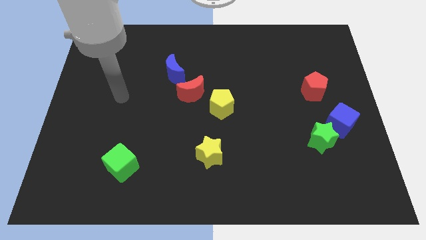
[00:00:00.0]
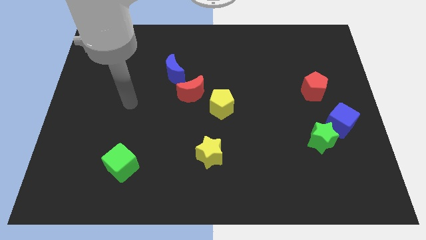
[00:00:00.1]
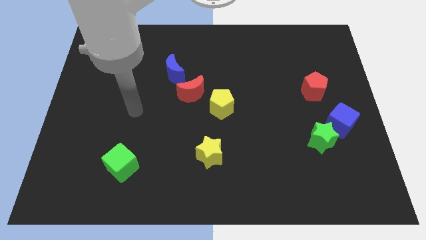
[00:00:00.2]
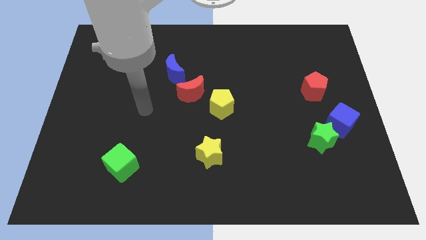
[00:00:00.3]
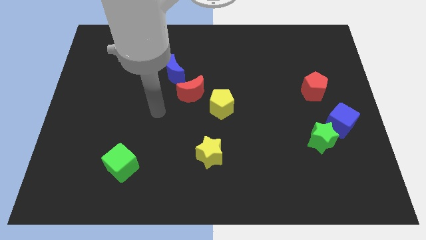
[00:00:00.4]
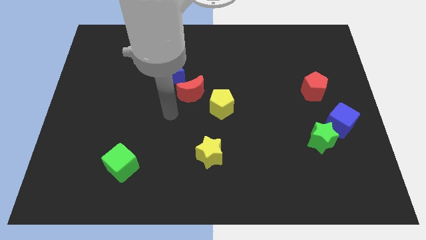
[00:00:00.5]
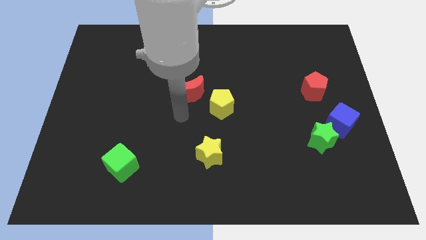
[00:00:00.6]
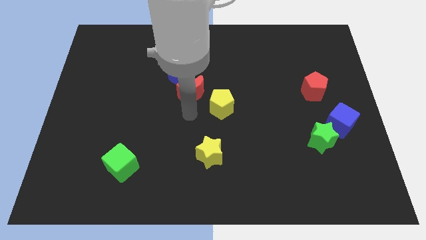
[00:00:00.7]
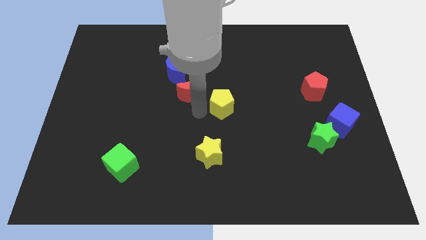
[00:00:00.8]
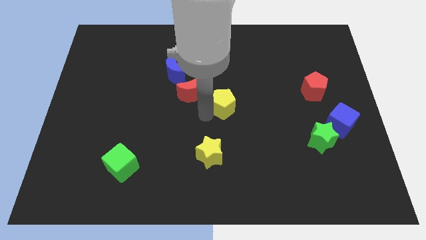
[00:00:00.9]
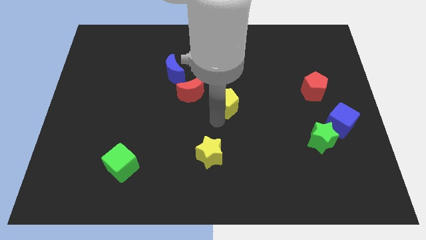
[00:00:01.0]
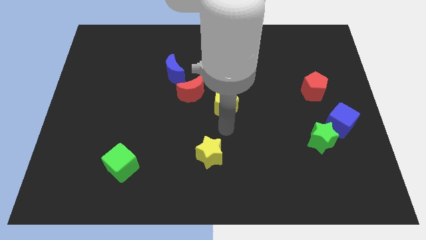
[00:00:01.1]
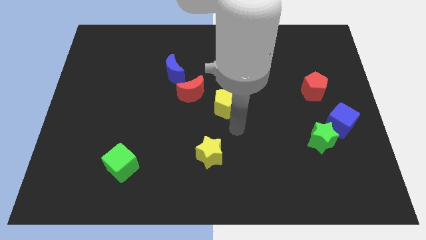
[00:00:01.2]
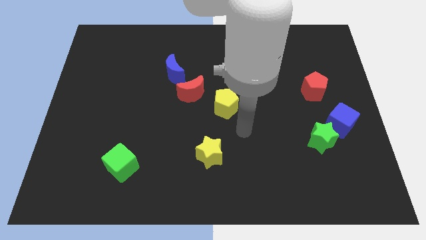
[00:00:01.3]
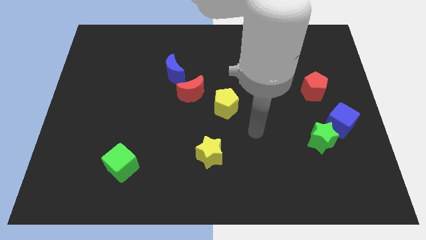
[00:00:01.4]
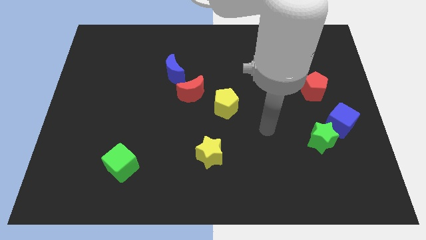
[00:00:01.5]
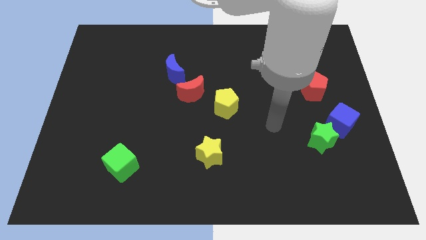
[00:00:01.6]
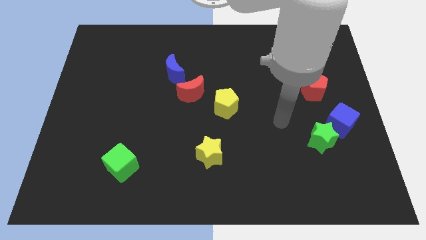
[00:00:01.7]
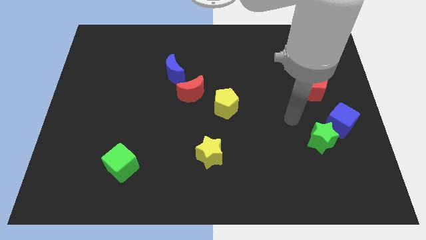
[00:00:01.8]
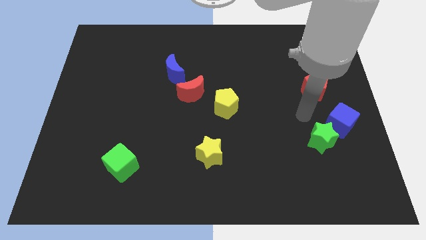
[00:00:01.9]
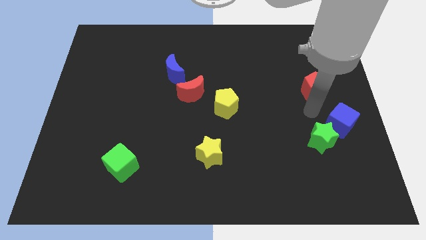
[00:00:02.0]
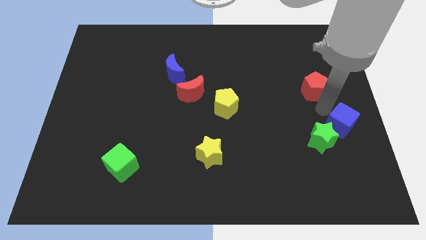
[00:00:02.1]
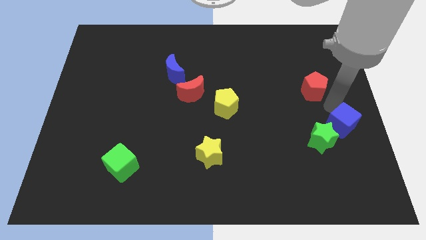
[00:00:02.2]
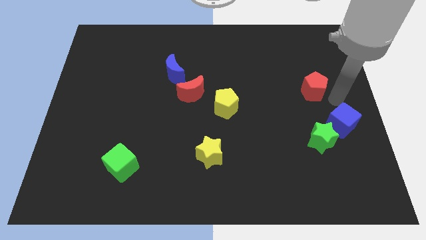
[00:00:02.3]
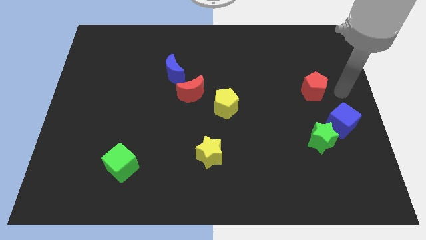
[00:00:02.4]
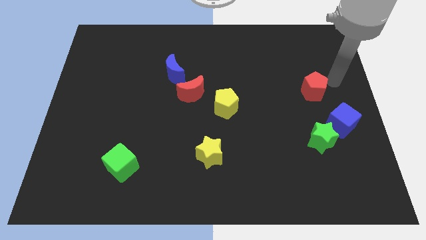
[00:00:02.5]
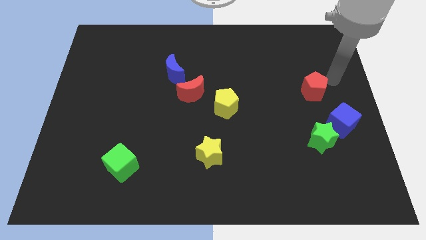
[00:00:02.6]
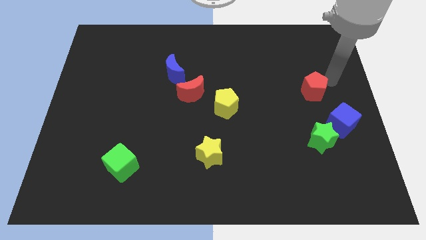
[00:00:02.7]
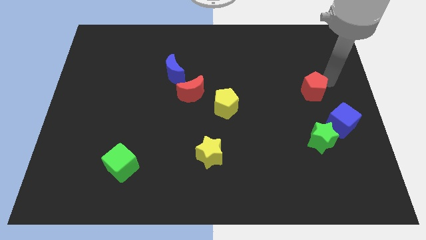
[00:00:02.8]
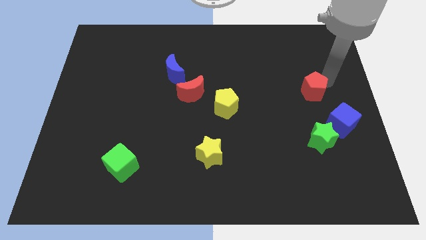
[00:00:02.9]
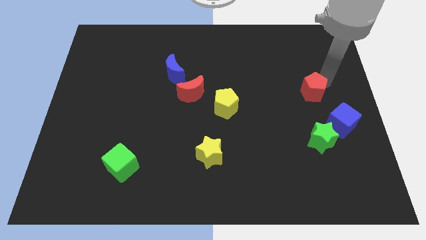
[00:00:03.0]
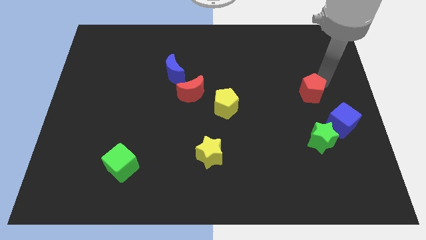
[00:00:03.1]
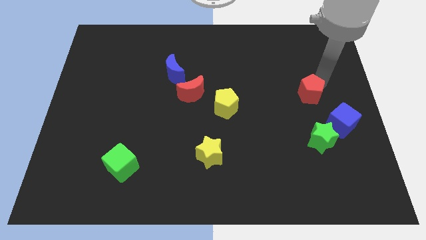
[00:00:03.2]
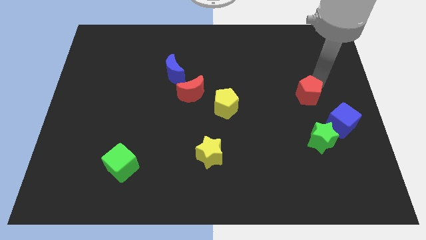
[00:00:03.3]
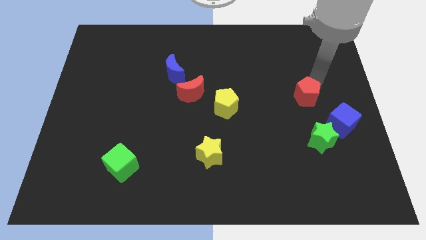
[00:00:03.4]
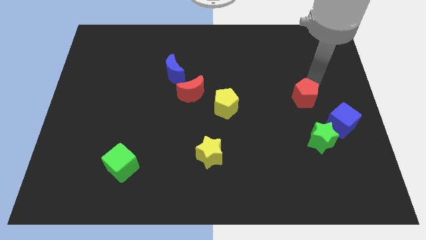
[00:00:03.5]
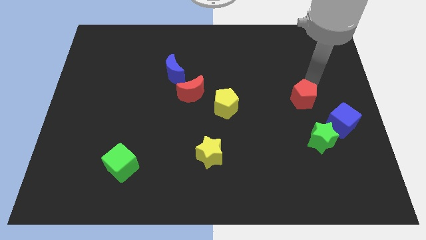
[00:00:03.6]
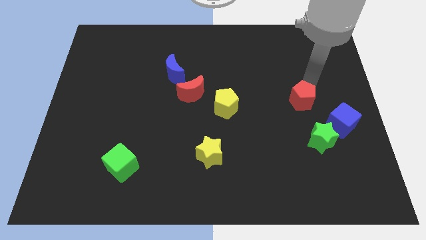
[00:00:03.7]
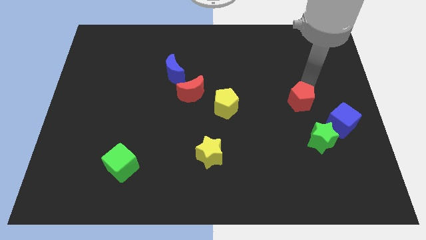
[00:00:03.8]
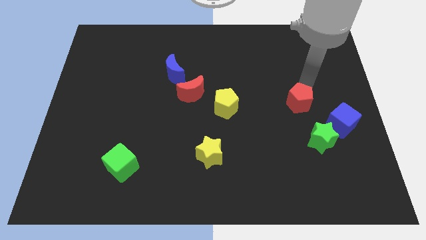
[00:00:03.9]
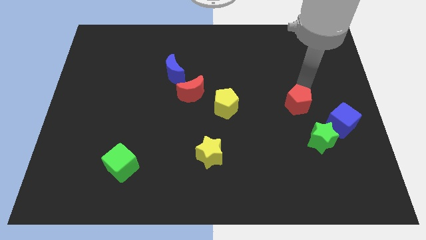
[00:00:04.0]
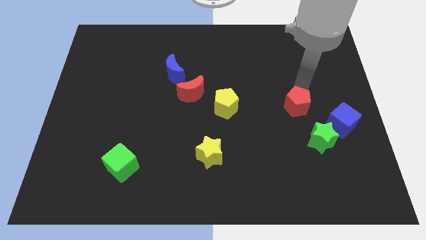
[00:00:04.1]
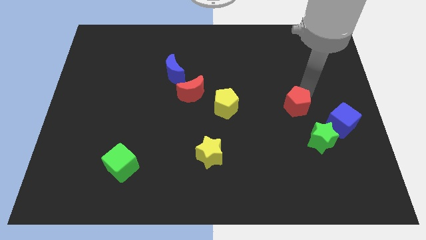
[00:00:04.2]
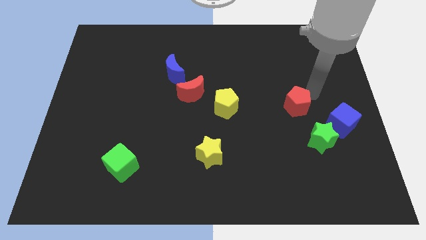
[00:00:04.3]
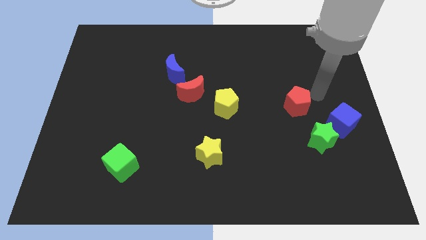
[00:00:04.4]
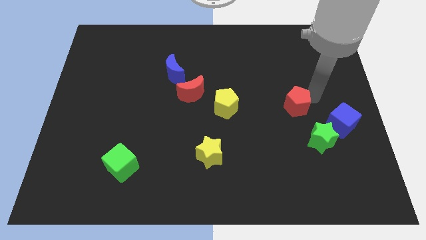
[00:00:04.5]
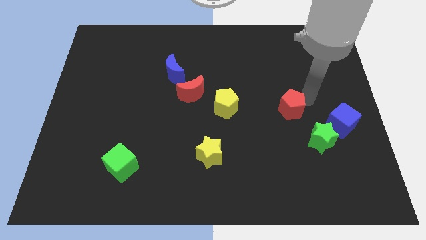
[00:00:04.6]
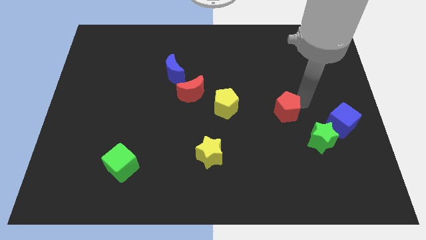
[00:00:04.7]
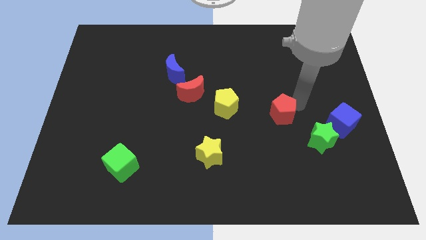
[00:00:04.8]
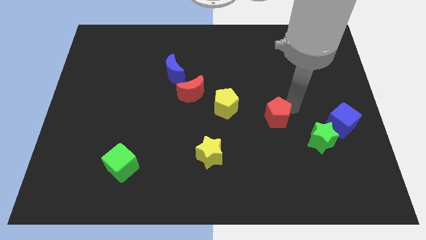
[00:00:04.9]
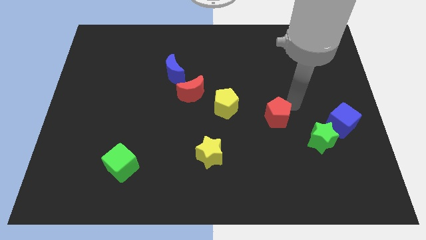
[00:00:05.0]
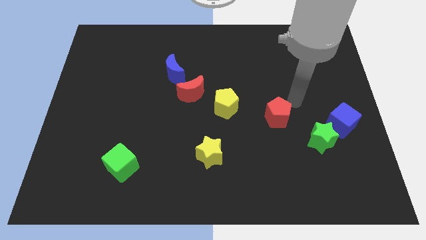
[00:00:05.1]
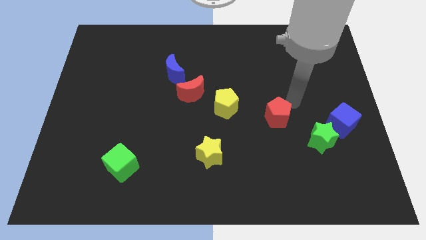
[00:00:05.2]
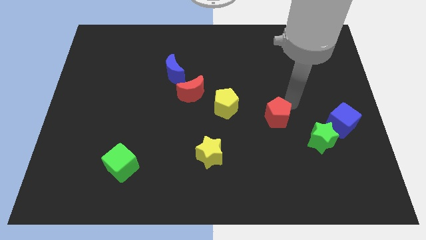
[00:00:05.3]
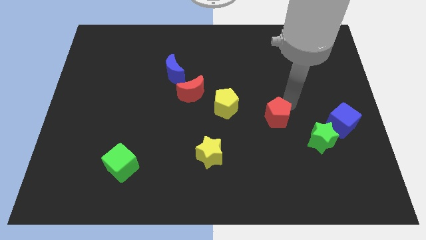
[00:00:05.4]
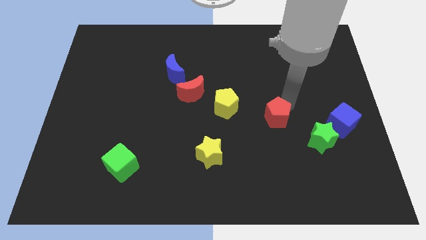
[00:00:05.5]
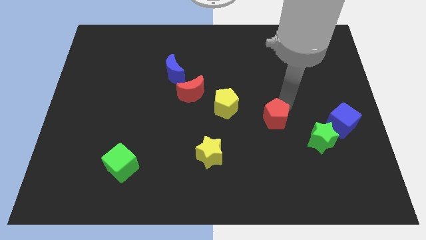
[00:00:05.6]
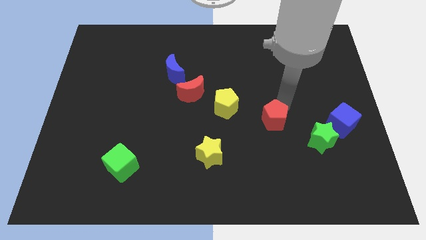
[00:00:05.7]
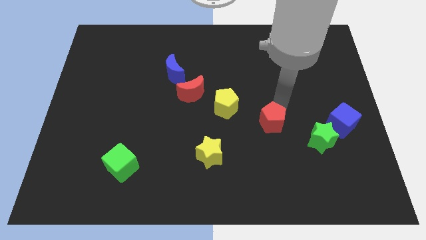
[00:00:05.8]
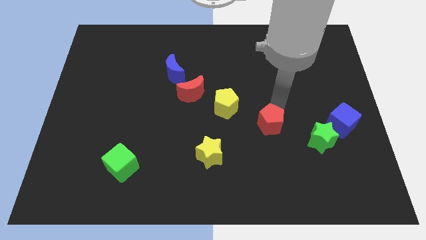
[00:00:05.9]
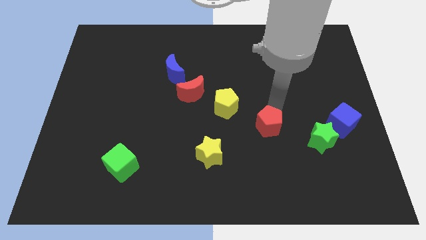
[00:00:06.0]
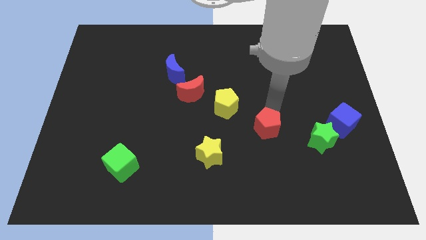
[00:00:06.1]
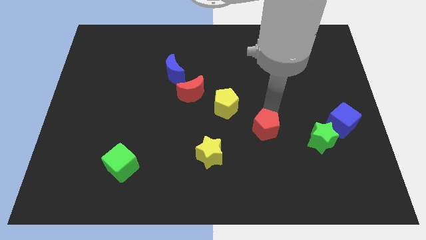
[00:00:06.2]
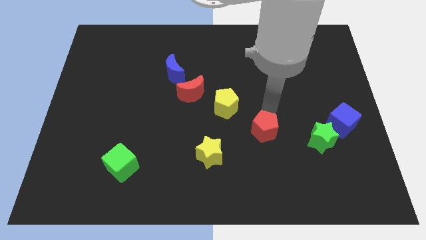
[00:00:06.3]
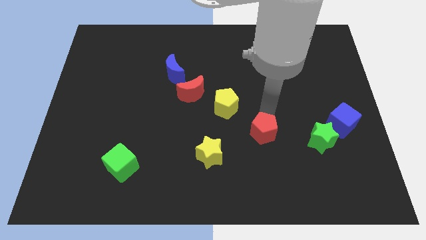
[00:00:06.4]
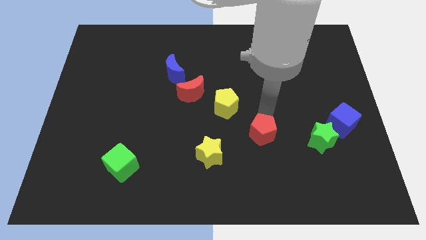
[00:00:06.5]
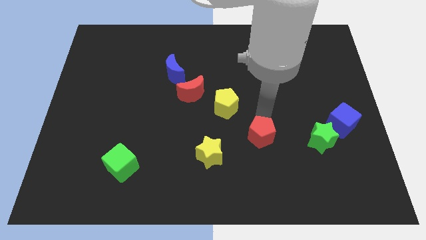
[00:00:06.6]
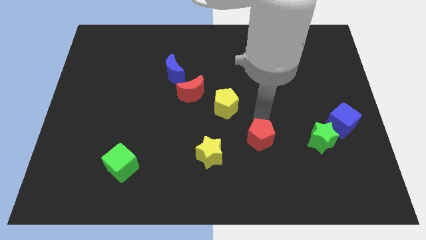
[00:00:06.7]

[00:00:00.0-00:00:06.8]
slide the red pentagon down and left diagonally

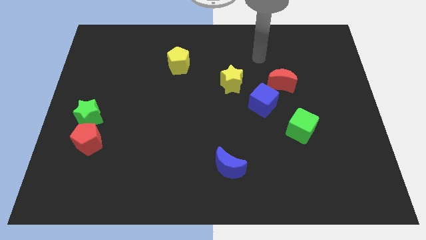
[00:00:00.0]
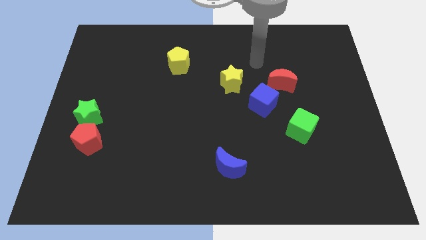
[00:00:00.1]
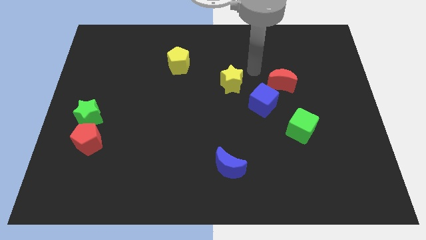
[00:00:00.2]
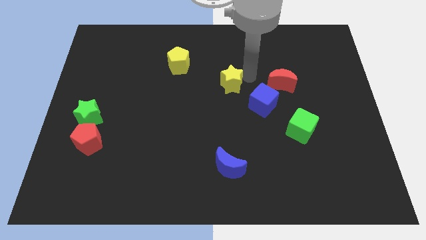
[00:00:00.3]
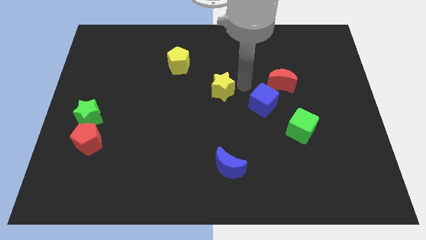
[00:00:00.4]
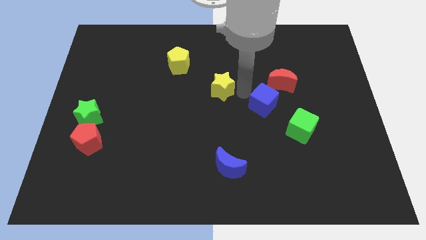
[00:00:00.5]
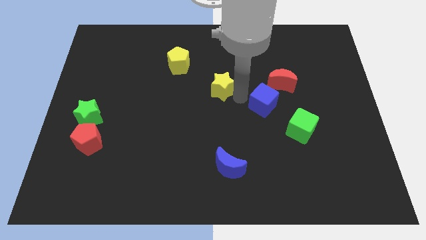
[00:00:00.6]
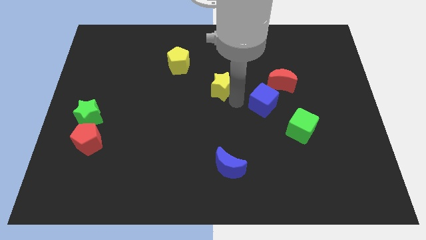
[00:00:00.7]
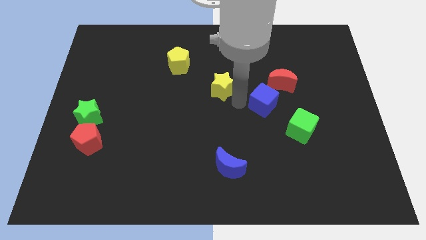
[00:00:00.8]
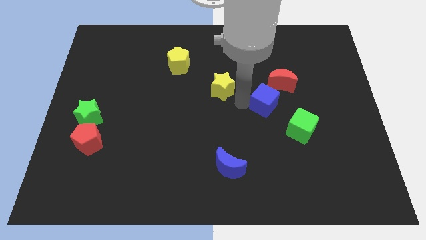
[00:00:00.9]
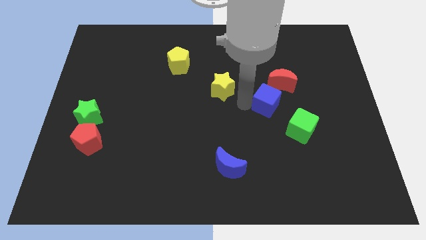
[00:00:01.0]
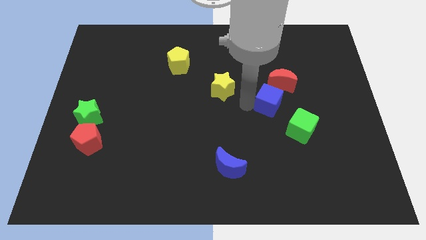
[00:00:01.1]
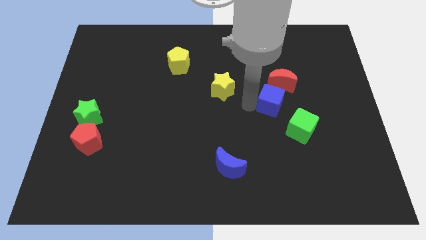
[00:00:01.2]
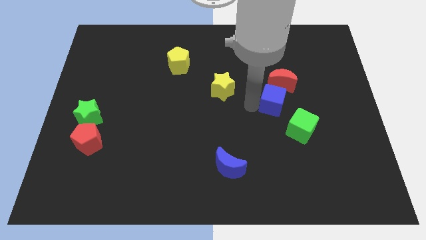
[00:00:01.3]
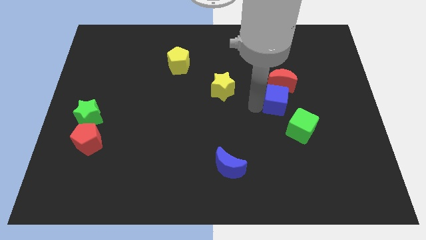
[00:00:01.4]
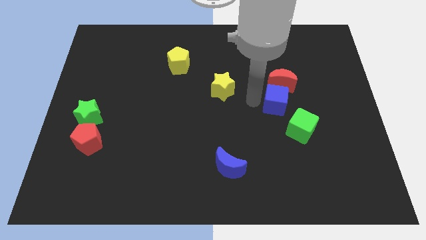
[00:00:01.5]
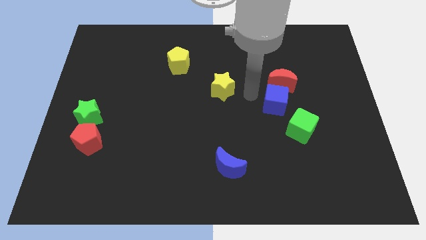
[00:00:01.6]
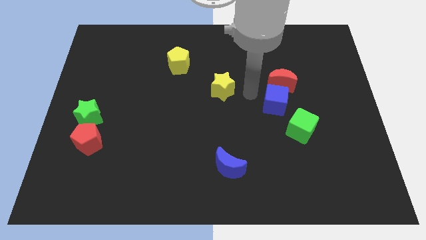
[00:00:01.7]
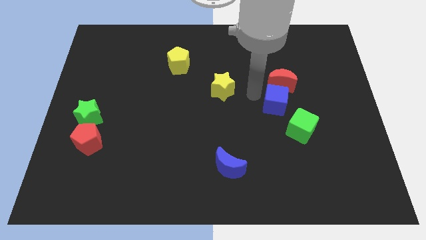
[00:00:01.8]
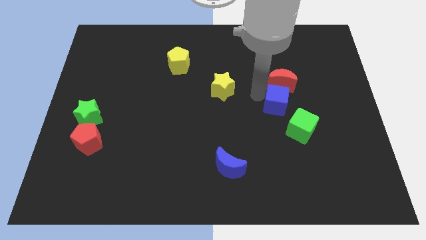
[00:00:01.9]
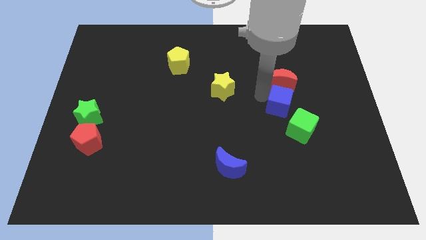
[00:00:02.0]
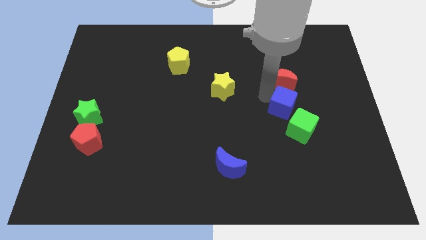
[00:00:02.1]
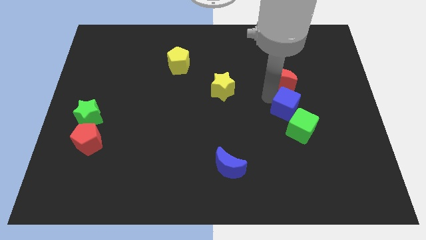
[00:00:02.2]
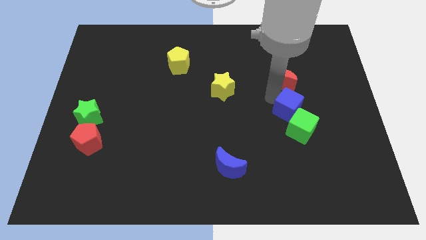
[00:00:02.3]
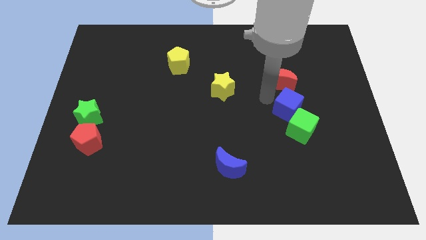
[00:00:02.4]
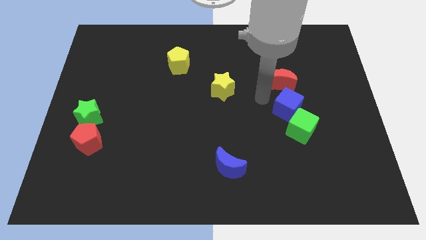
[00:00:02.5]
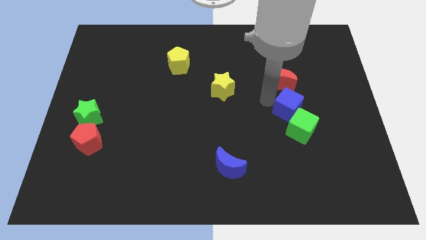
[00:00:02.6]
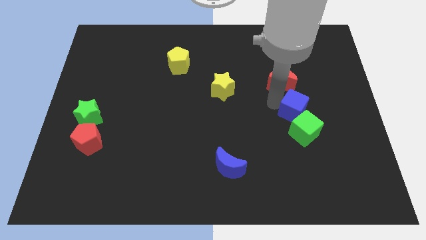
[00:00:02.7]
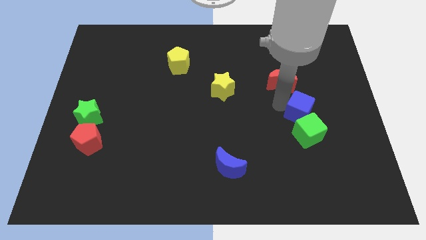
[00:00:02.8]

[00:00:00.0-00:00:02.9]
slide the blue cube downwards and right a bit
